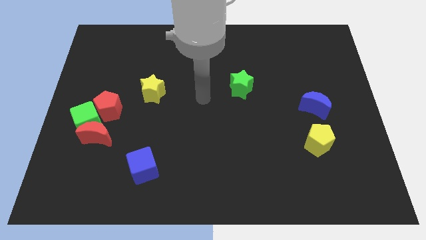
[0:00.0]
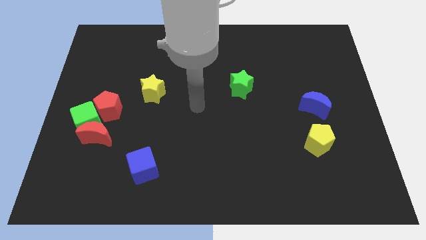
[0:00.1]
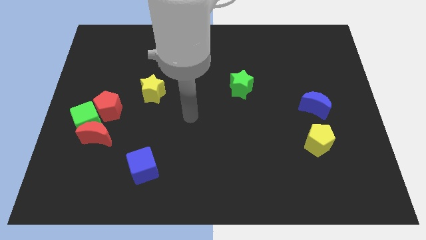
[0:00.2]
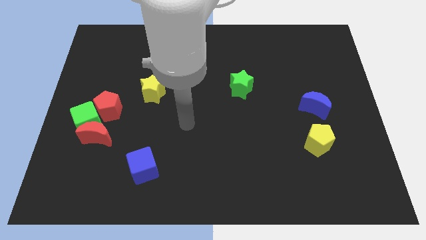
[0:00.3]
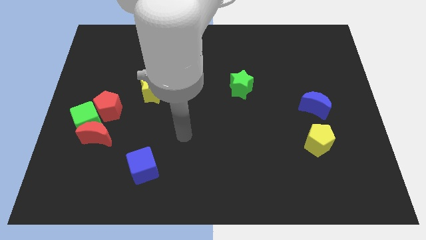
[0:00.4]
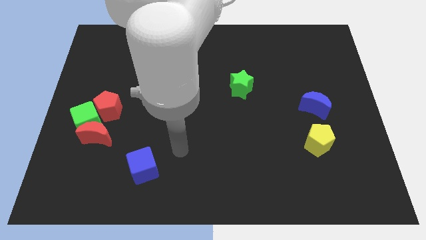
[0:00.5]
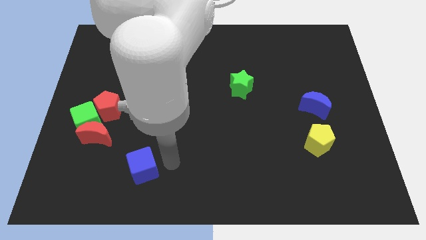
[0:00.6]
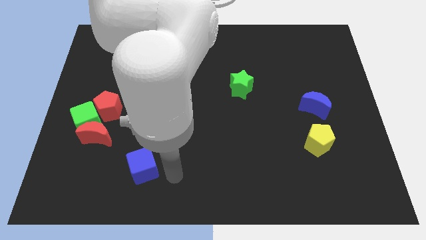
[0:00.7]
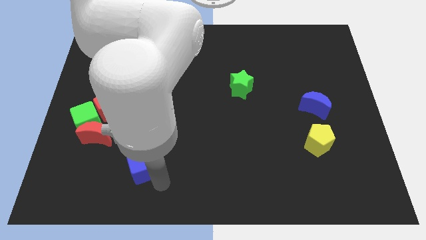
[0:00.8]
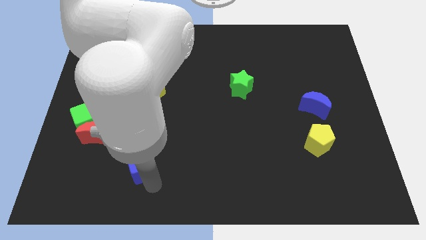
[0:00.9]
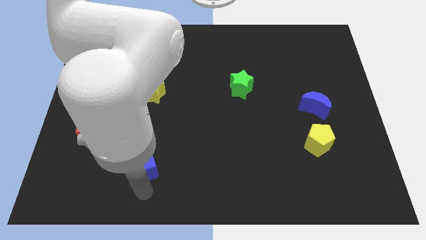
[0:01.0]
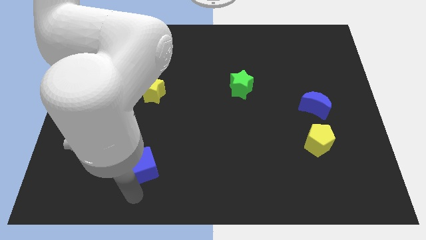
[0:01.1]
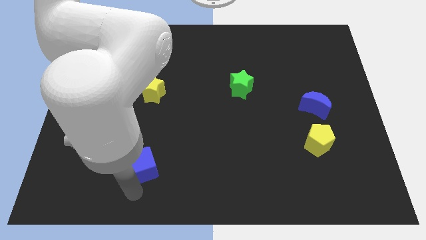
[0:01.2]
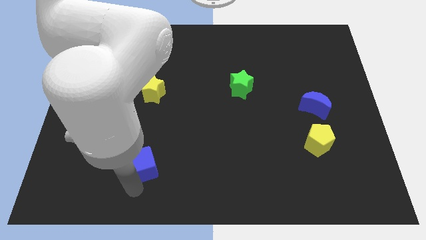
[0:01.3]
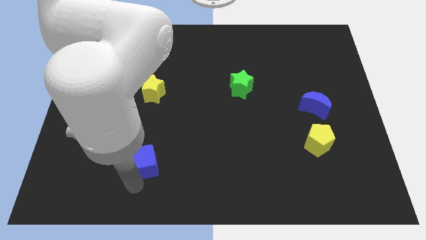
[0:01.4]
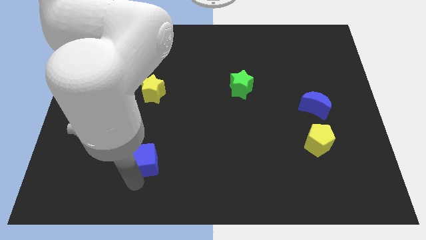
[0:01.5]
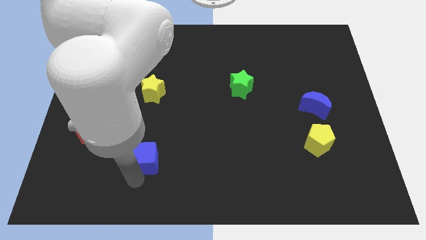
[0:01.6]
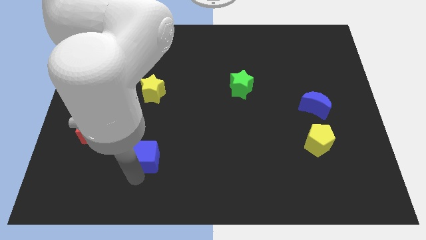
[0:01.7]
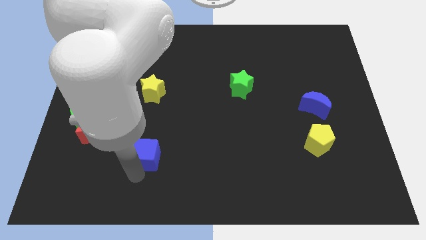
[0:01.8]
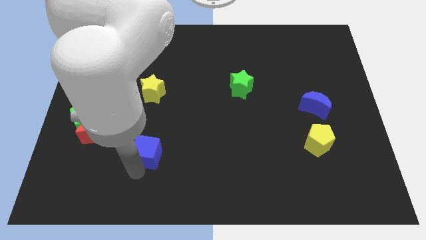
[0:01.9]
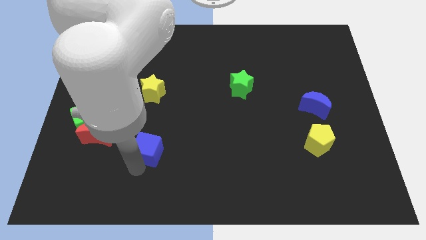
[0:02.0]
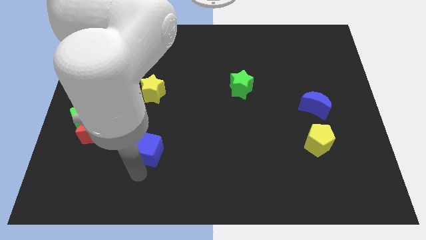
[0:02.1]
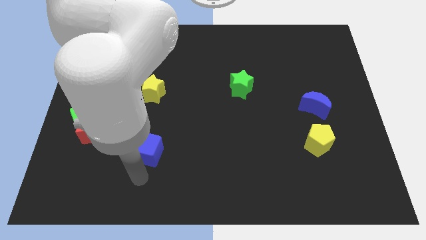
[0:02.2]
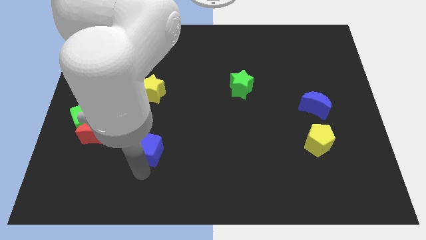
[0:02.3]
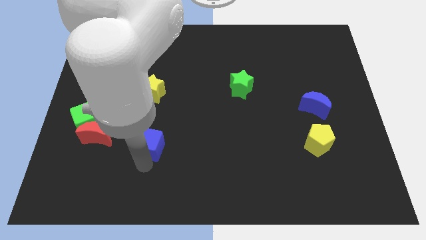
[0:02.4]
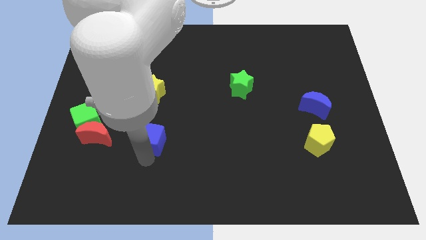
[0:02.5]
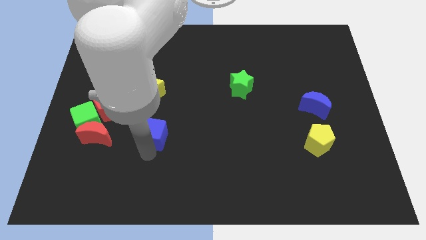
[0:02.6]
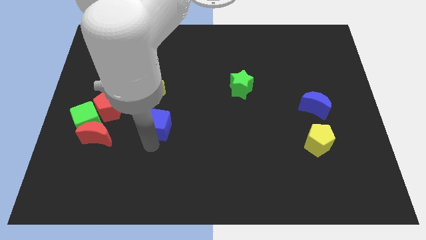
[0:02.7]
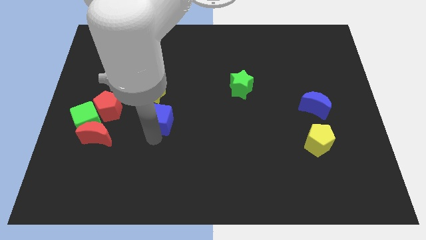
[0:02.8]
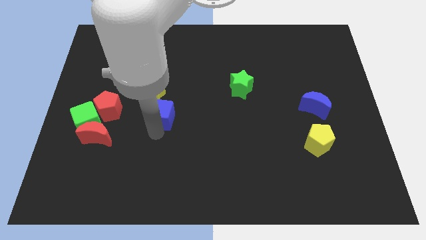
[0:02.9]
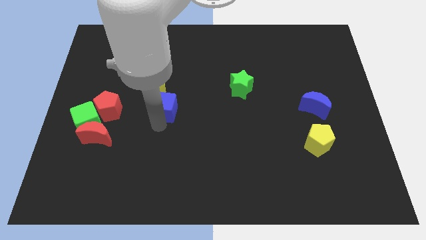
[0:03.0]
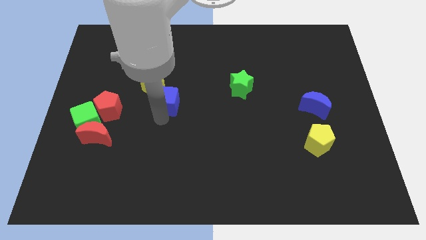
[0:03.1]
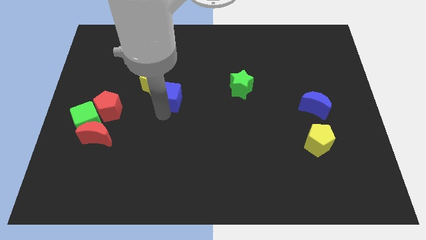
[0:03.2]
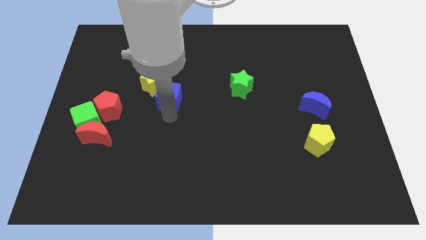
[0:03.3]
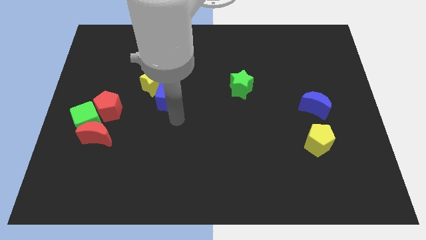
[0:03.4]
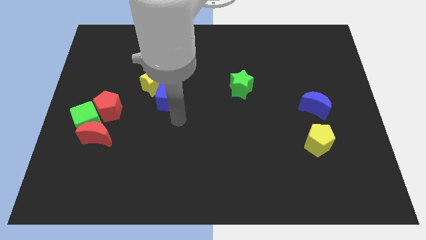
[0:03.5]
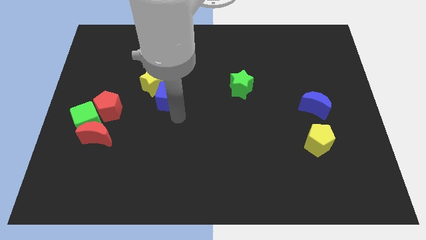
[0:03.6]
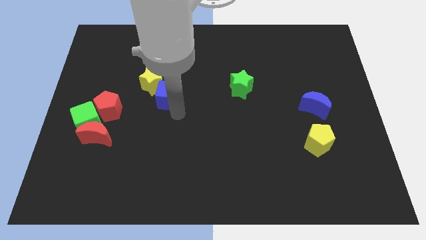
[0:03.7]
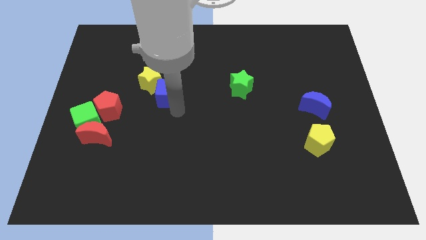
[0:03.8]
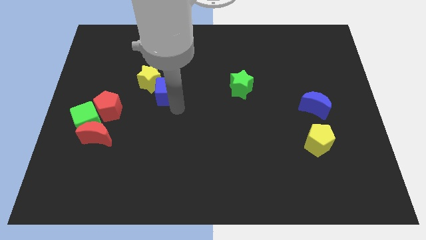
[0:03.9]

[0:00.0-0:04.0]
move the blue cube up

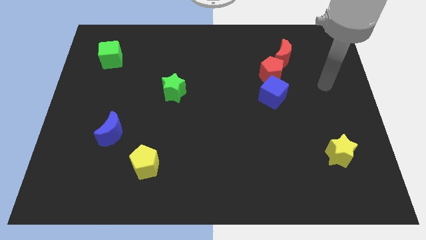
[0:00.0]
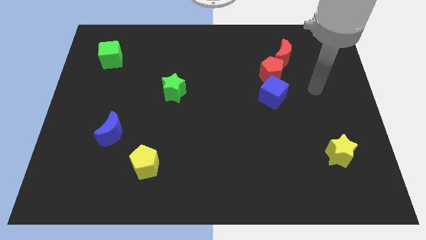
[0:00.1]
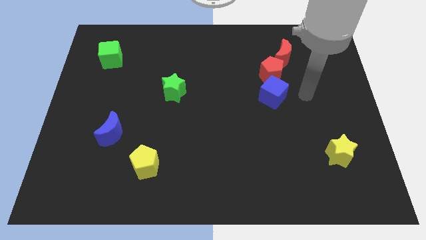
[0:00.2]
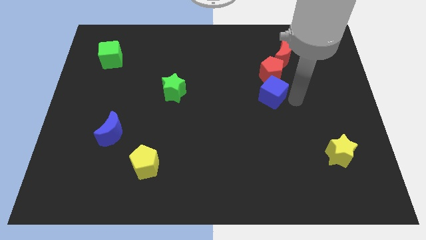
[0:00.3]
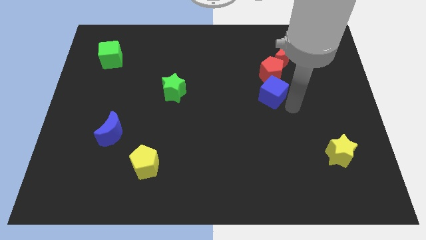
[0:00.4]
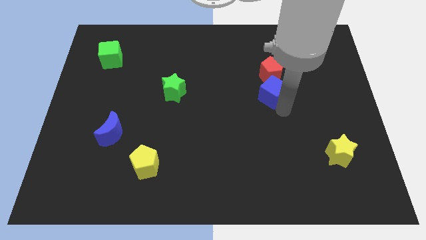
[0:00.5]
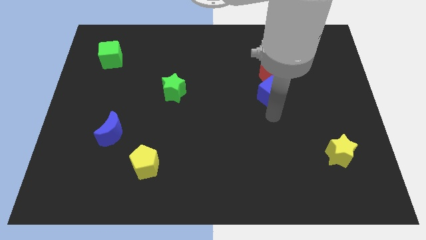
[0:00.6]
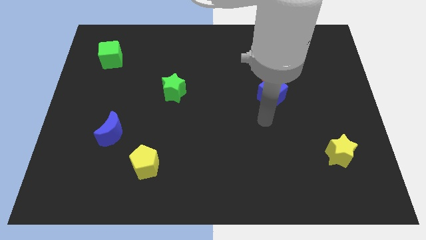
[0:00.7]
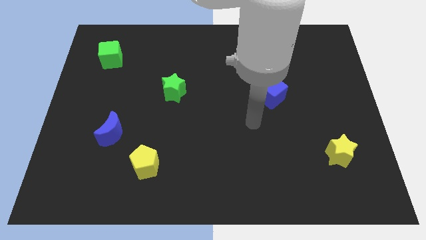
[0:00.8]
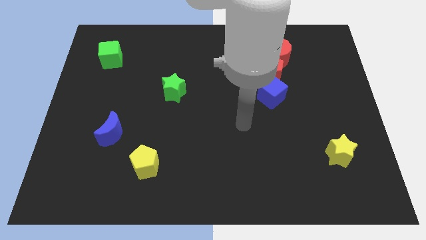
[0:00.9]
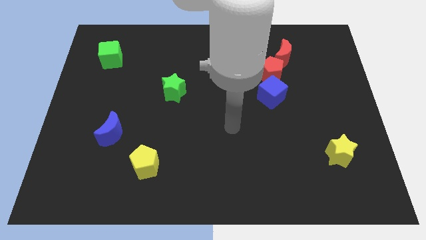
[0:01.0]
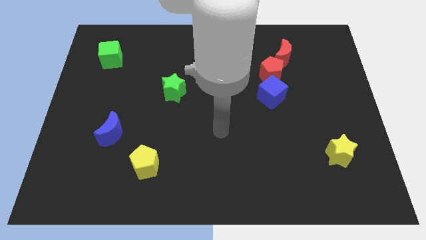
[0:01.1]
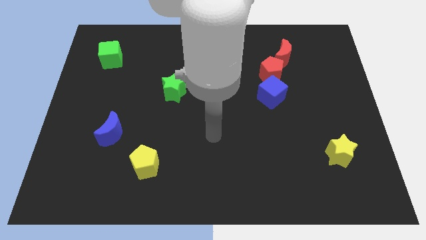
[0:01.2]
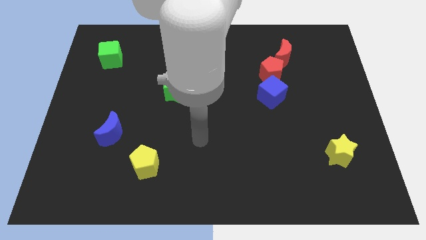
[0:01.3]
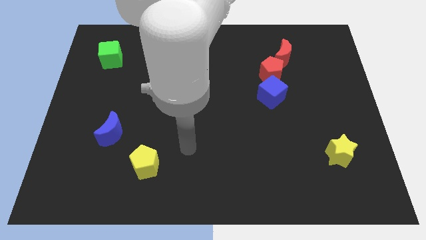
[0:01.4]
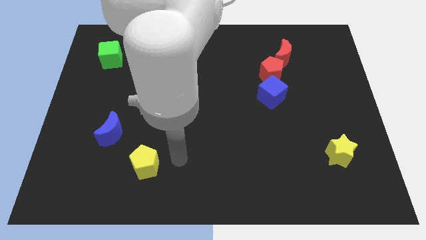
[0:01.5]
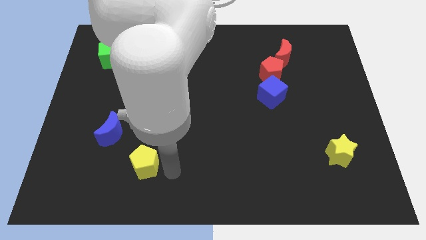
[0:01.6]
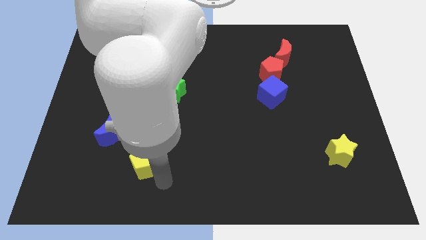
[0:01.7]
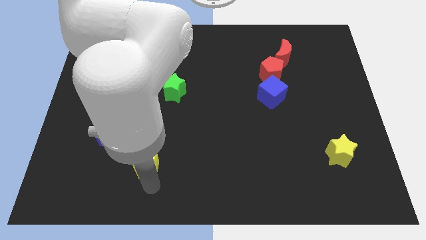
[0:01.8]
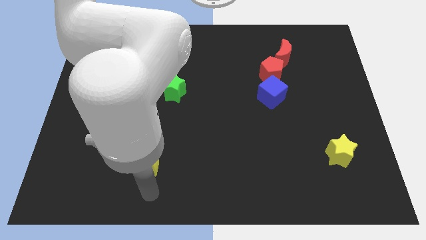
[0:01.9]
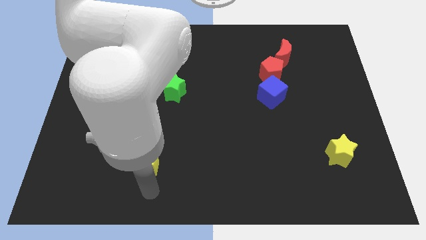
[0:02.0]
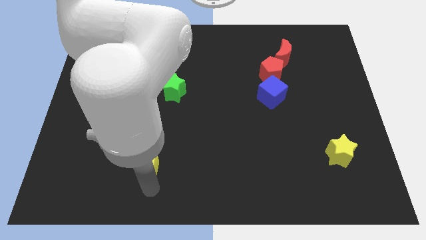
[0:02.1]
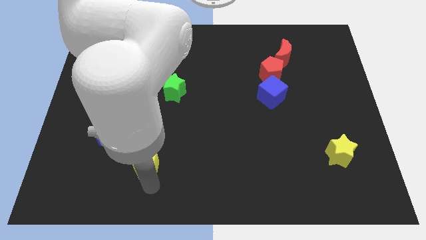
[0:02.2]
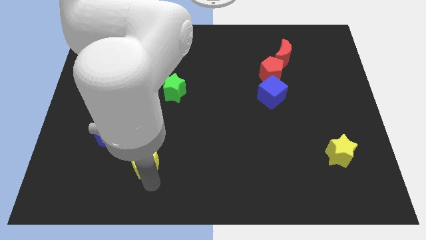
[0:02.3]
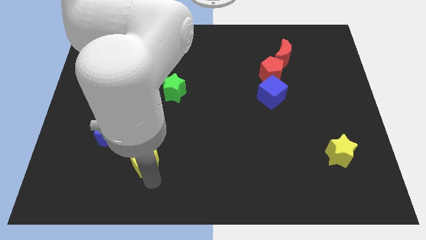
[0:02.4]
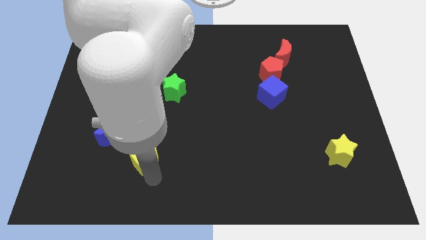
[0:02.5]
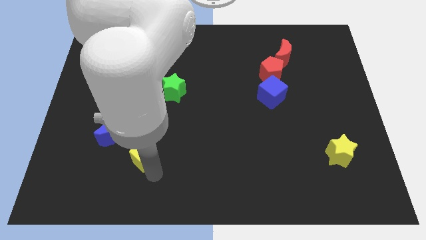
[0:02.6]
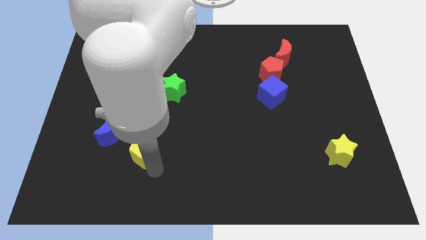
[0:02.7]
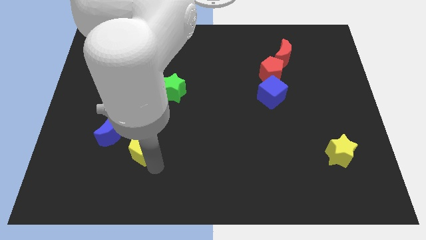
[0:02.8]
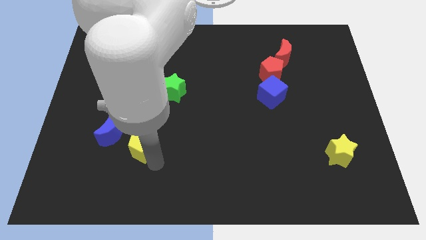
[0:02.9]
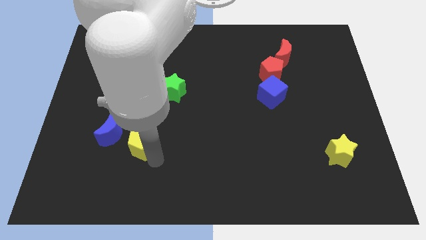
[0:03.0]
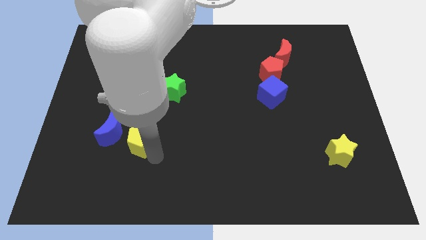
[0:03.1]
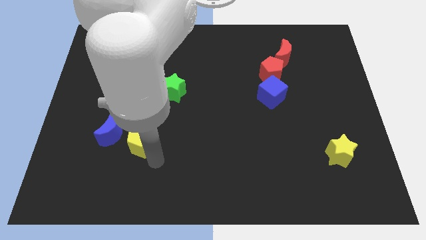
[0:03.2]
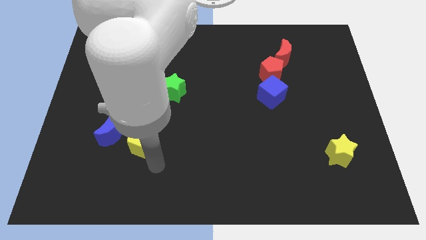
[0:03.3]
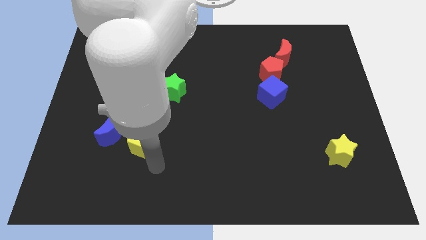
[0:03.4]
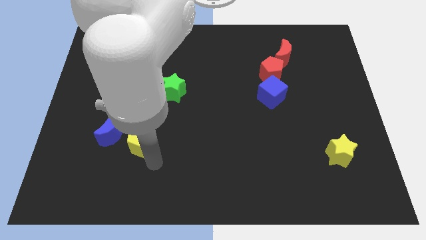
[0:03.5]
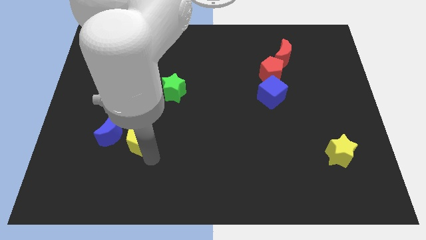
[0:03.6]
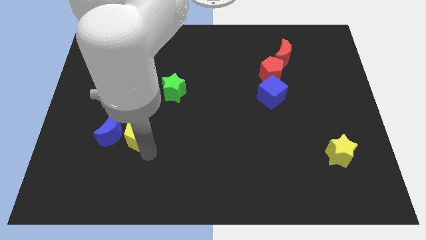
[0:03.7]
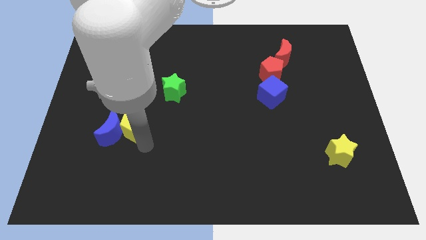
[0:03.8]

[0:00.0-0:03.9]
move the yellow pentagon up and left slightly
